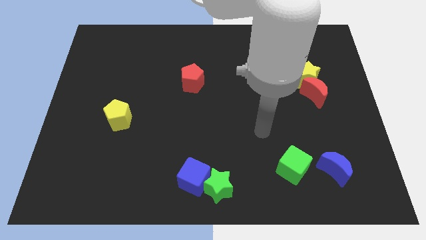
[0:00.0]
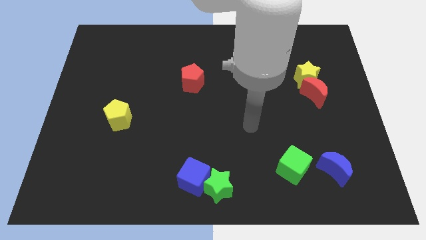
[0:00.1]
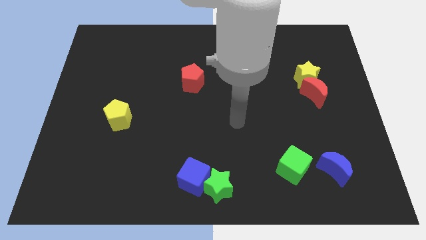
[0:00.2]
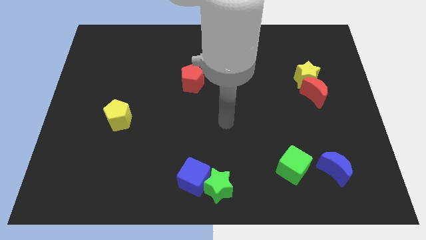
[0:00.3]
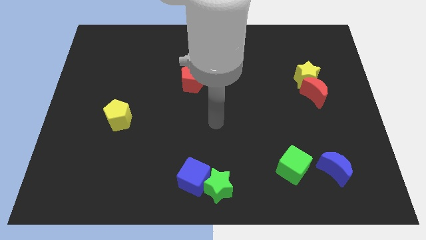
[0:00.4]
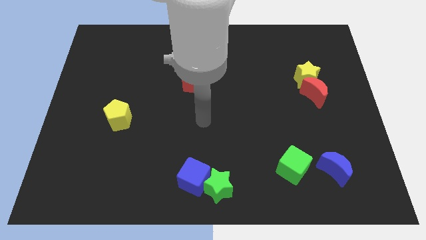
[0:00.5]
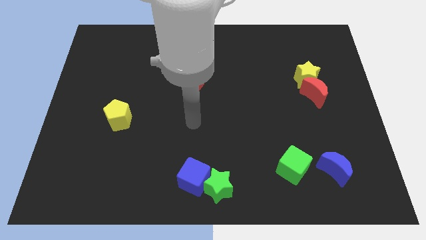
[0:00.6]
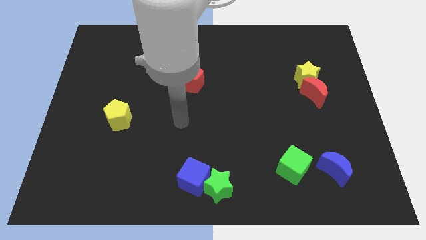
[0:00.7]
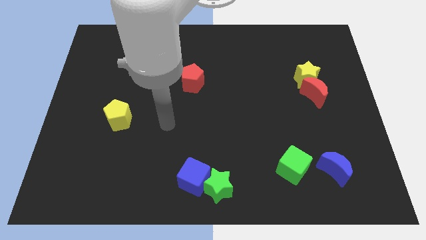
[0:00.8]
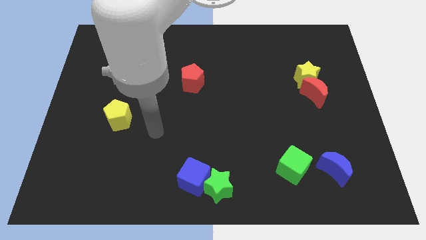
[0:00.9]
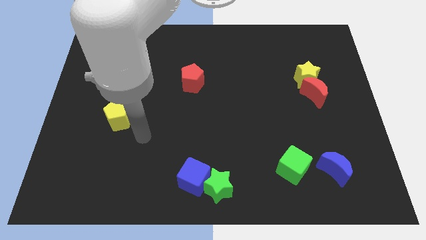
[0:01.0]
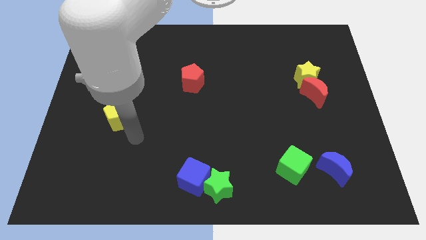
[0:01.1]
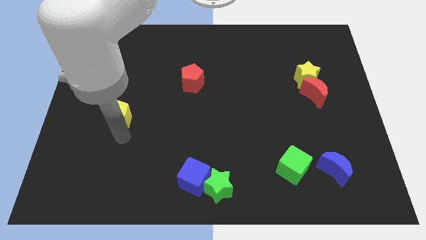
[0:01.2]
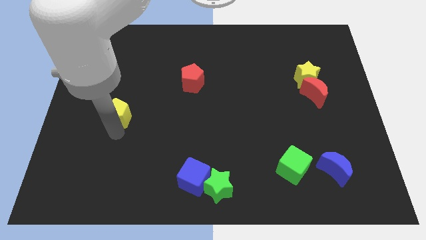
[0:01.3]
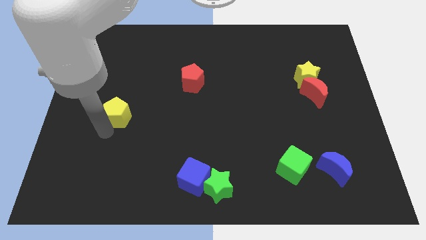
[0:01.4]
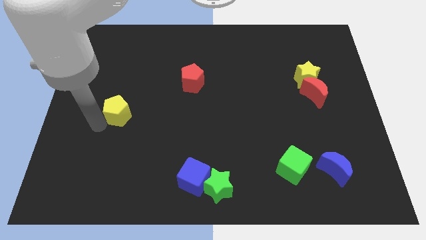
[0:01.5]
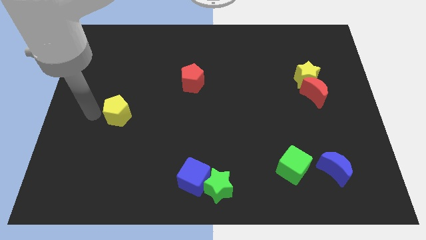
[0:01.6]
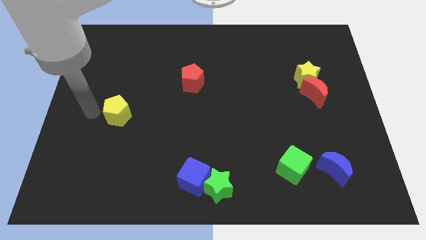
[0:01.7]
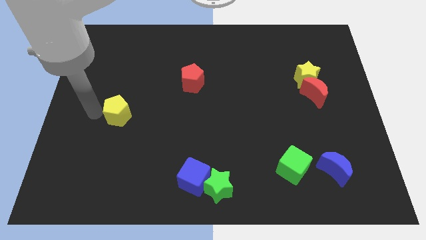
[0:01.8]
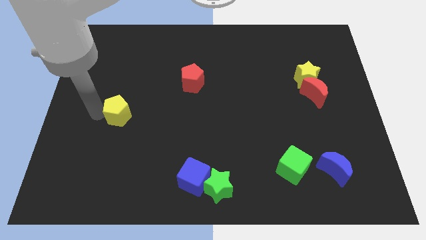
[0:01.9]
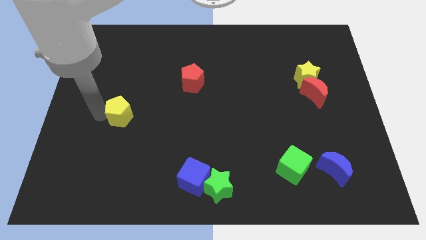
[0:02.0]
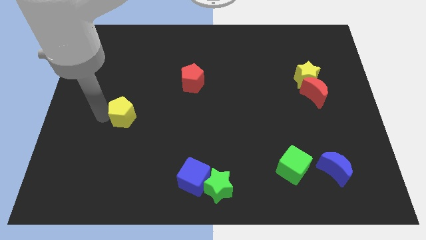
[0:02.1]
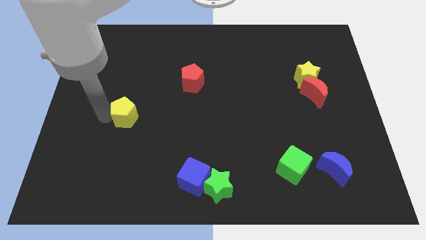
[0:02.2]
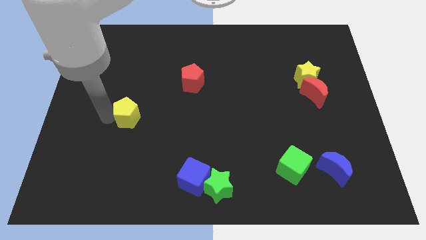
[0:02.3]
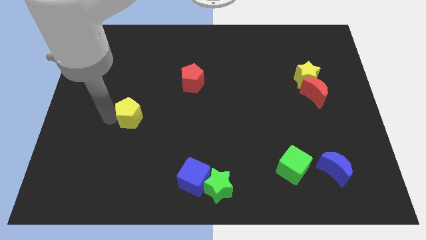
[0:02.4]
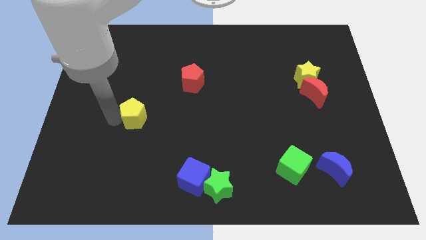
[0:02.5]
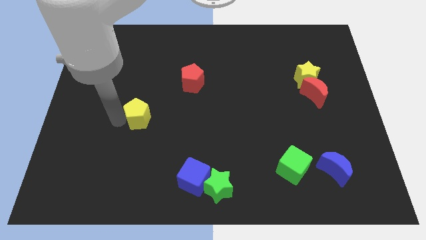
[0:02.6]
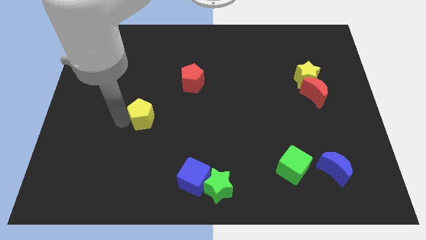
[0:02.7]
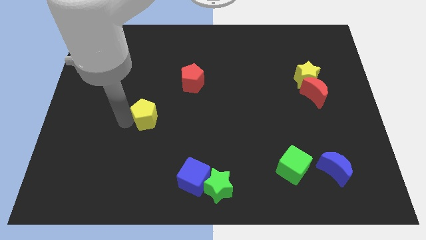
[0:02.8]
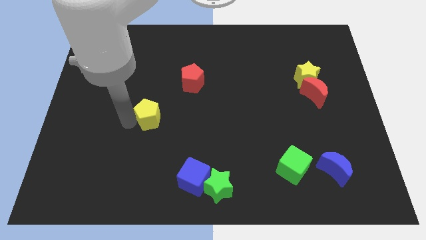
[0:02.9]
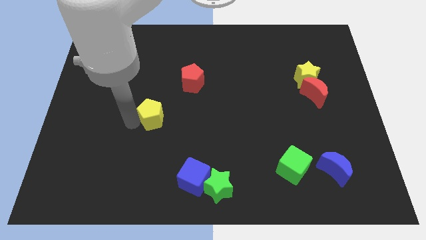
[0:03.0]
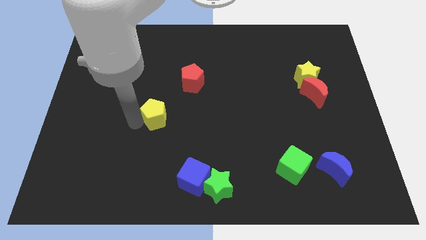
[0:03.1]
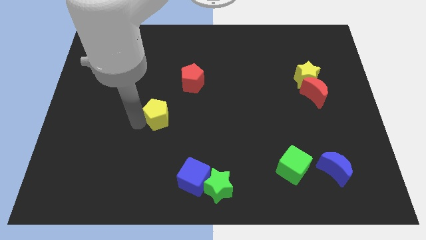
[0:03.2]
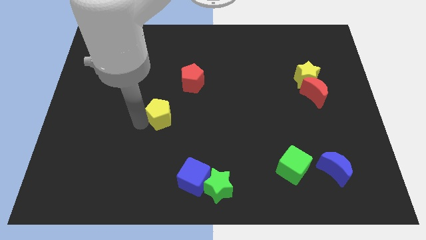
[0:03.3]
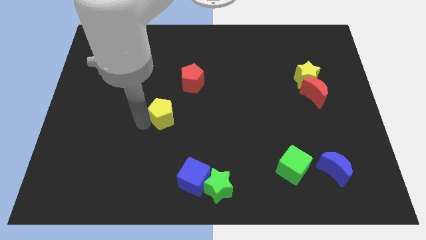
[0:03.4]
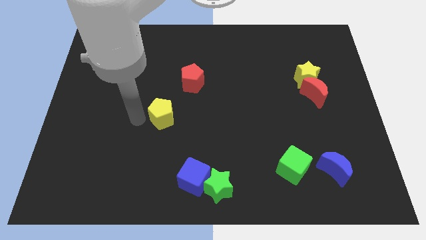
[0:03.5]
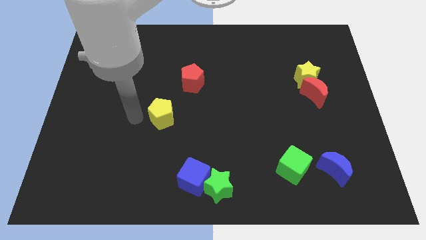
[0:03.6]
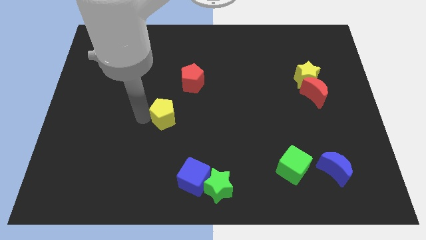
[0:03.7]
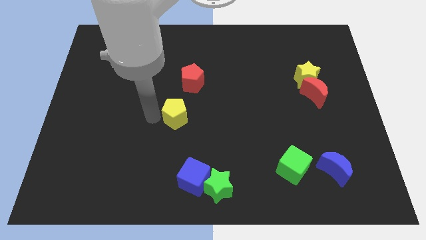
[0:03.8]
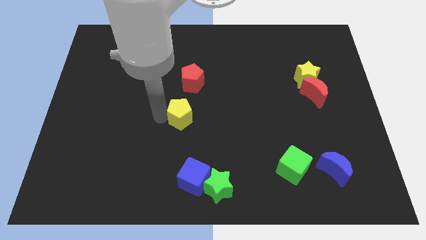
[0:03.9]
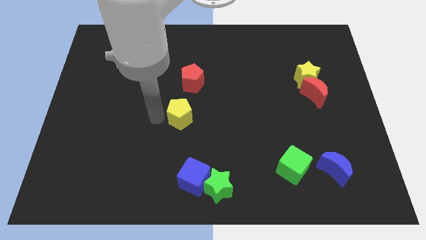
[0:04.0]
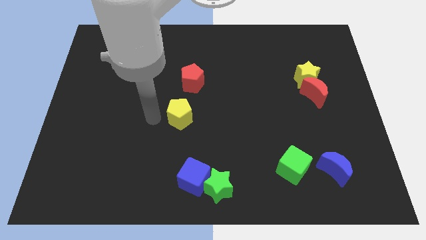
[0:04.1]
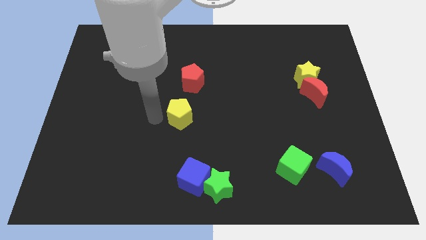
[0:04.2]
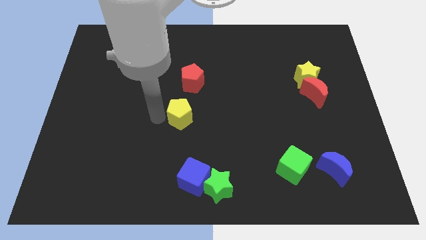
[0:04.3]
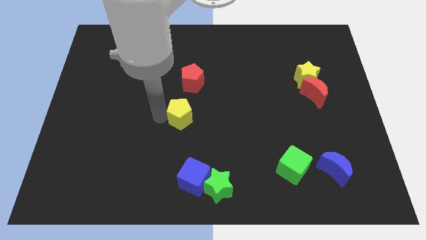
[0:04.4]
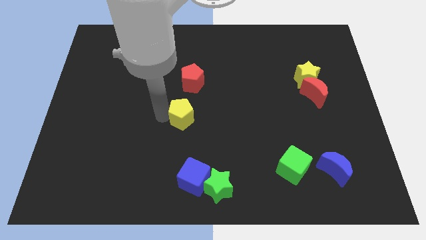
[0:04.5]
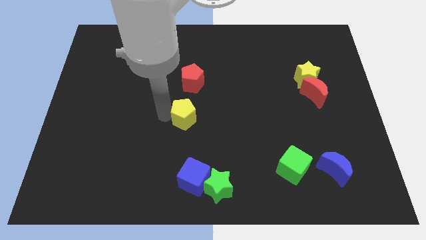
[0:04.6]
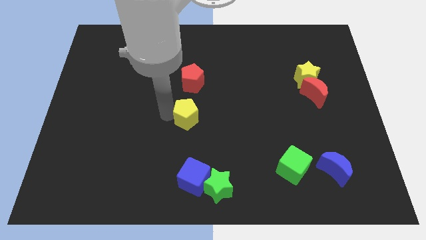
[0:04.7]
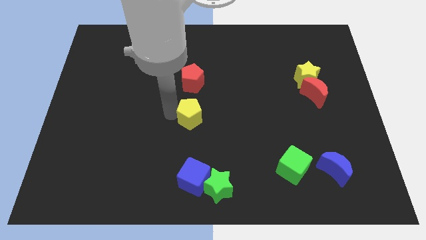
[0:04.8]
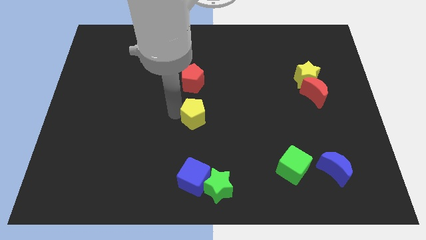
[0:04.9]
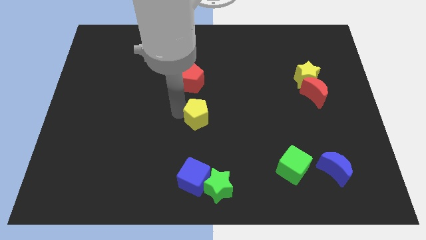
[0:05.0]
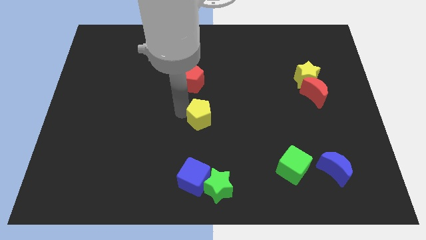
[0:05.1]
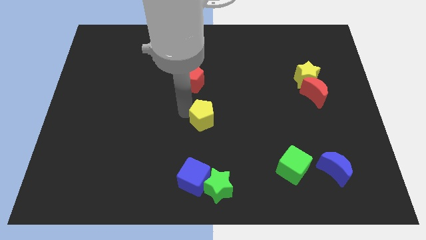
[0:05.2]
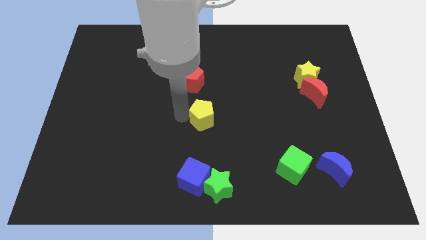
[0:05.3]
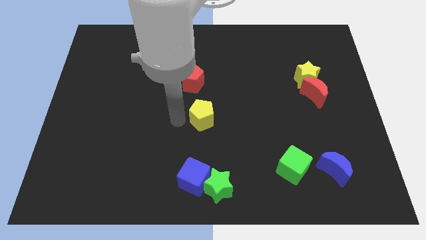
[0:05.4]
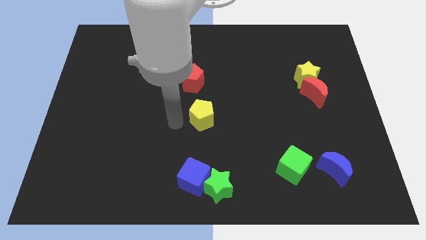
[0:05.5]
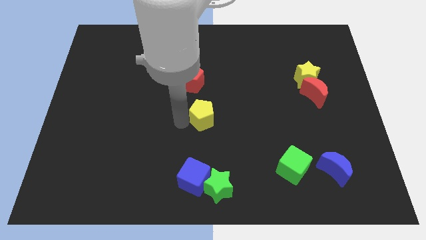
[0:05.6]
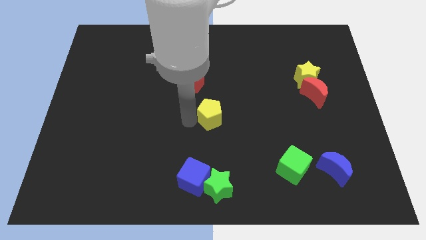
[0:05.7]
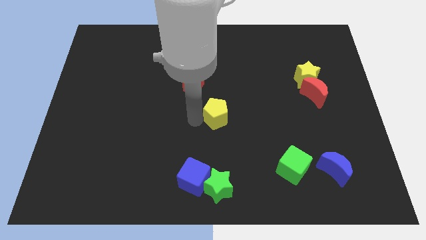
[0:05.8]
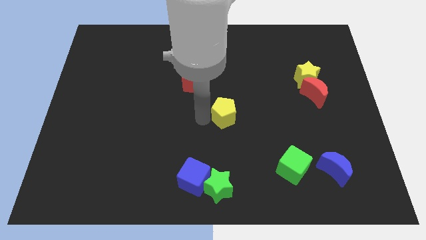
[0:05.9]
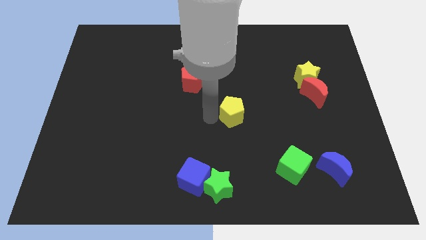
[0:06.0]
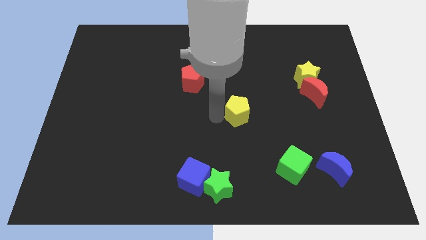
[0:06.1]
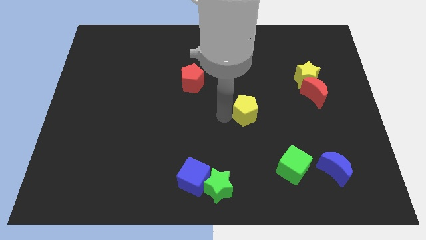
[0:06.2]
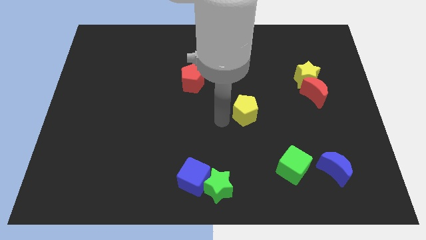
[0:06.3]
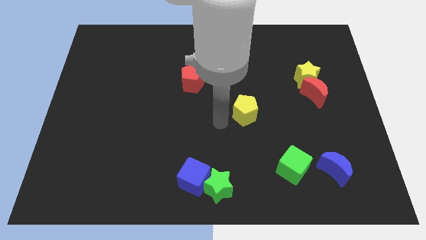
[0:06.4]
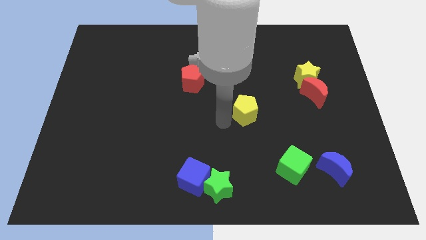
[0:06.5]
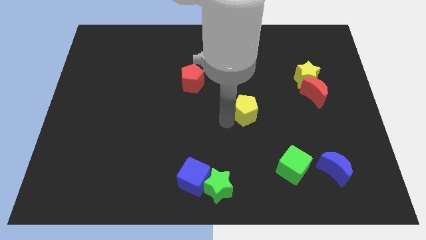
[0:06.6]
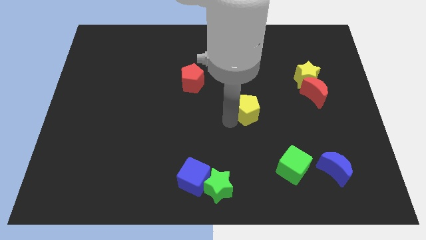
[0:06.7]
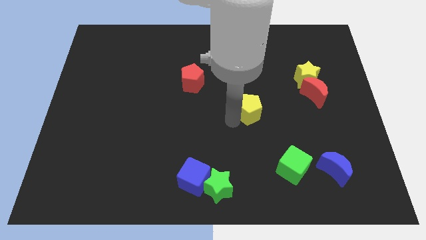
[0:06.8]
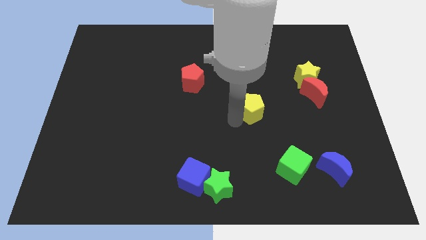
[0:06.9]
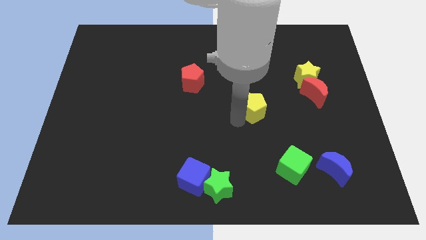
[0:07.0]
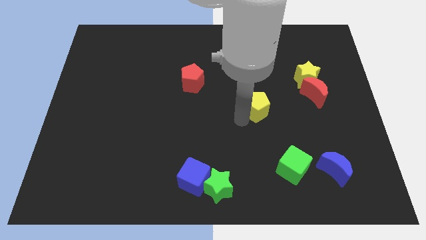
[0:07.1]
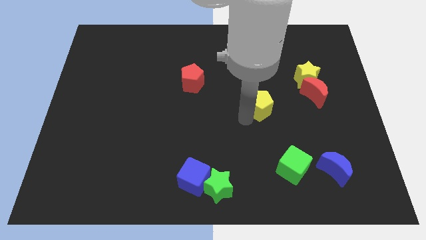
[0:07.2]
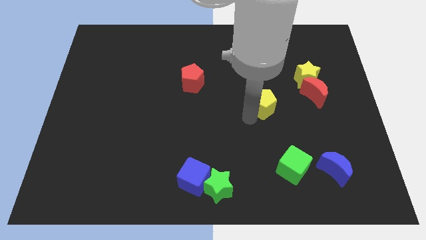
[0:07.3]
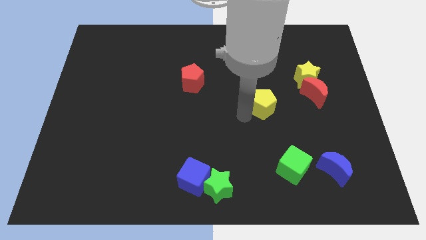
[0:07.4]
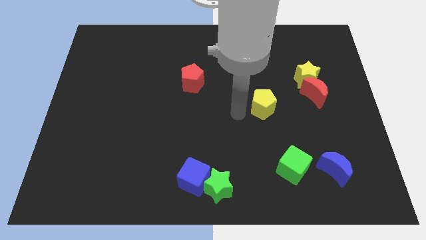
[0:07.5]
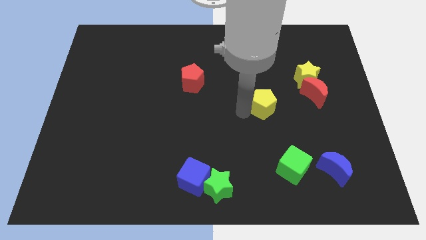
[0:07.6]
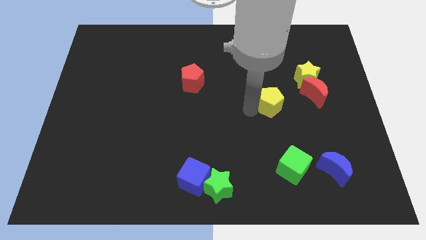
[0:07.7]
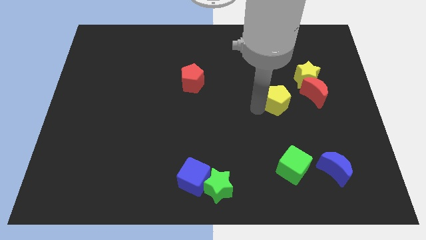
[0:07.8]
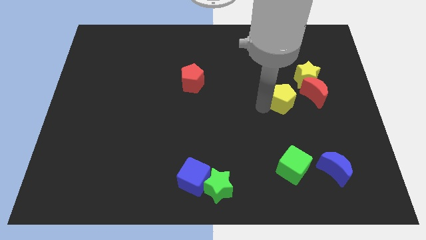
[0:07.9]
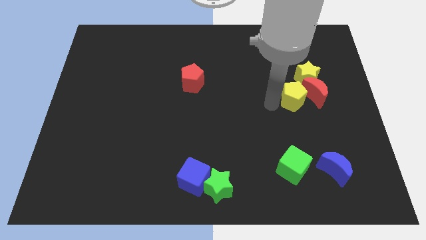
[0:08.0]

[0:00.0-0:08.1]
slide the yellow pentagon close to the red moon
